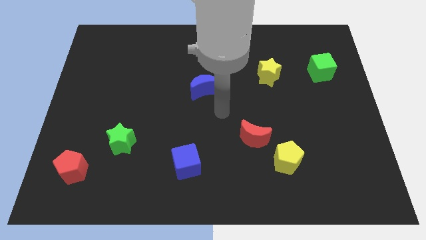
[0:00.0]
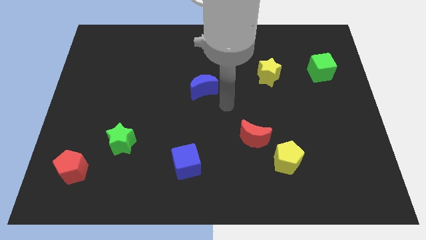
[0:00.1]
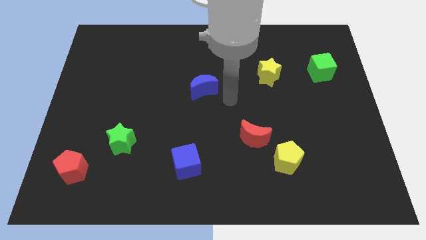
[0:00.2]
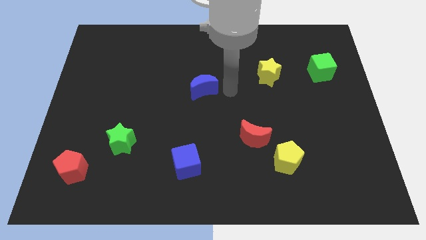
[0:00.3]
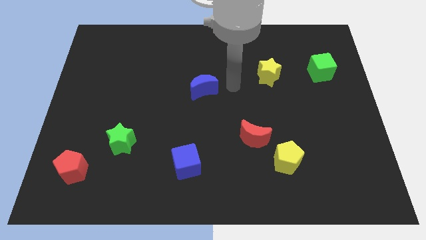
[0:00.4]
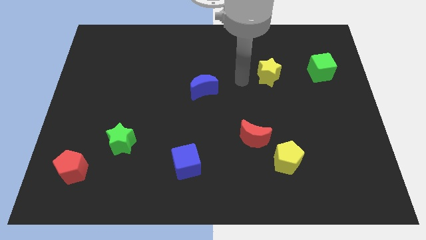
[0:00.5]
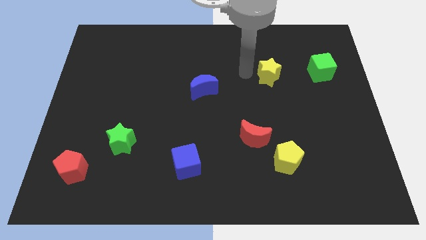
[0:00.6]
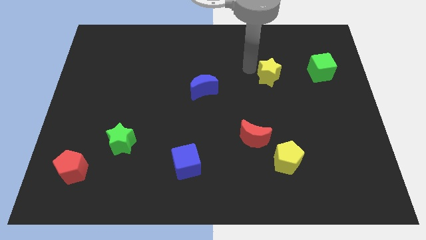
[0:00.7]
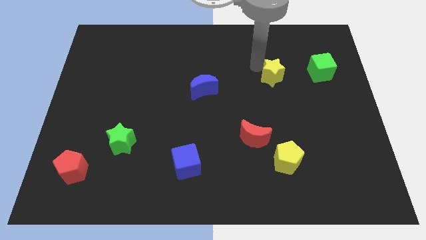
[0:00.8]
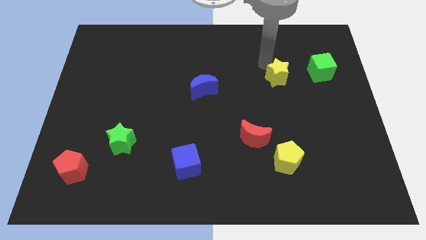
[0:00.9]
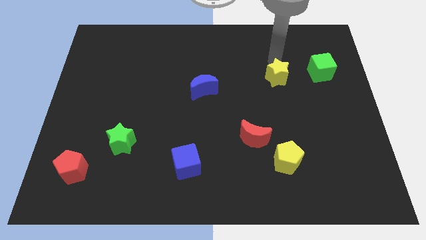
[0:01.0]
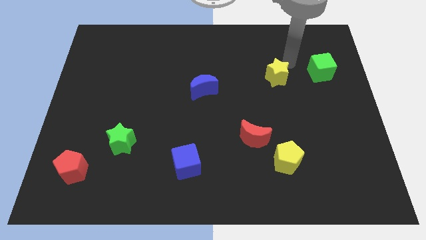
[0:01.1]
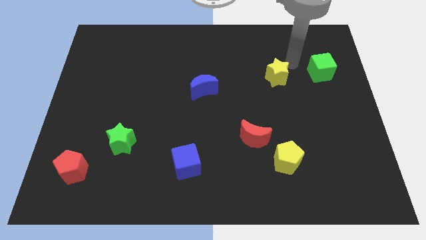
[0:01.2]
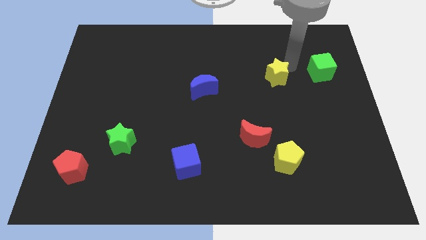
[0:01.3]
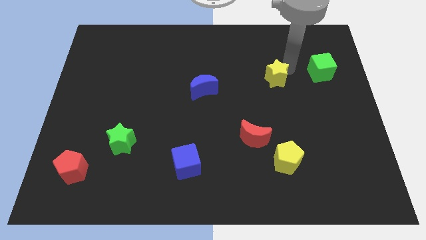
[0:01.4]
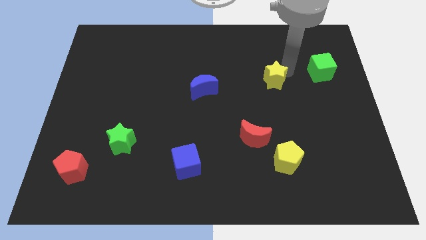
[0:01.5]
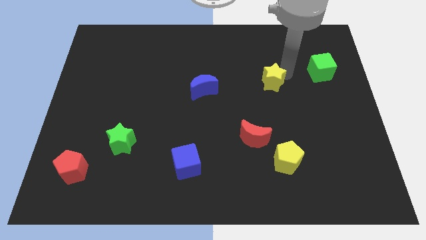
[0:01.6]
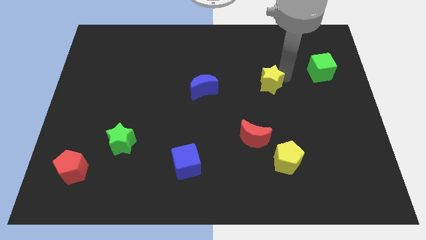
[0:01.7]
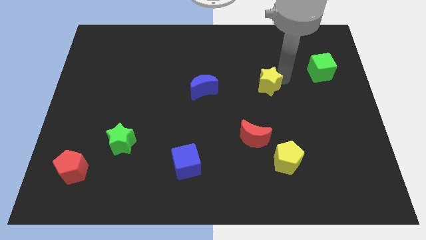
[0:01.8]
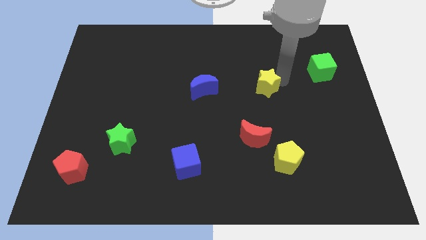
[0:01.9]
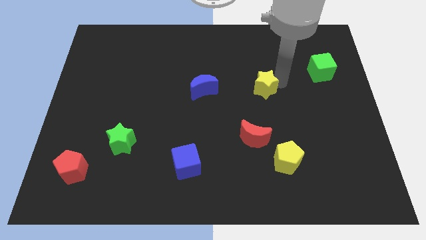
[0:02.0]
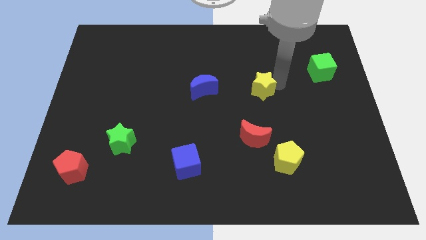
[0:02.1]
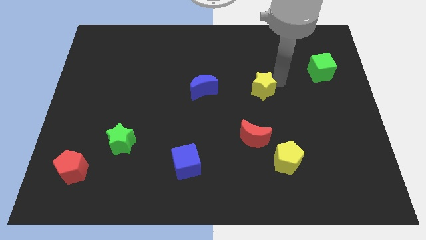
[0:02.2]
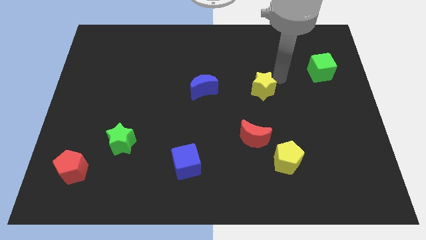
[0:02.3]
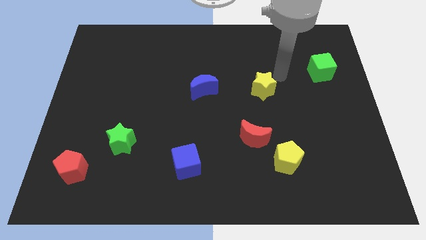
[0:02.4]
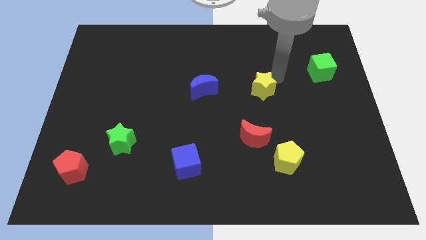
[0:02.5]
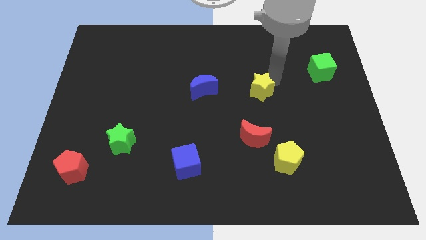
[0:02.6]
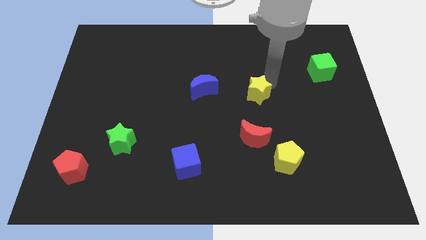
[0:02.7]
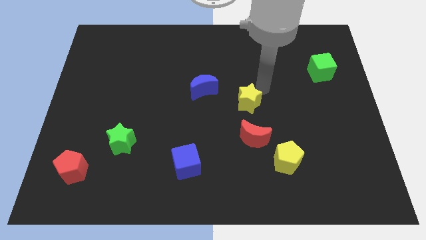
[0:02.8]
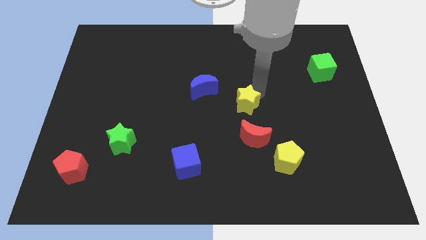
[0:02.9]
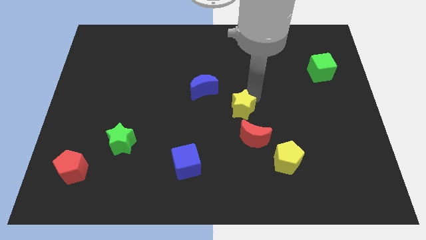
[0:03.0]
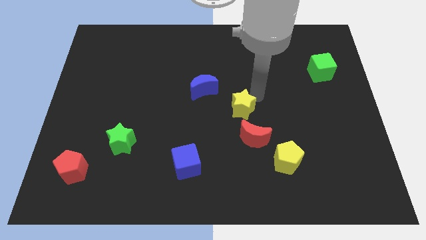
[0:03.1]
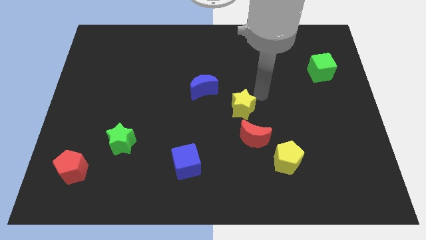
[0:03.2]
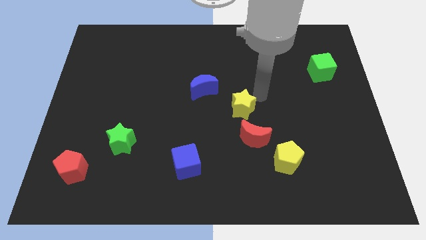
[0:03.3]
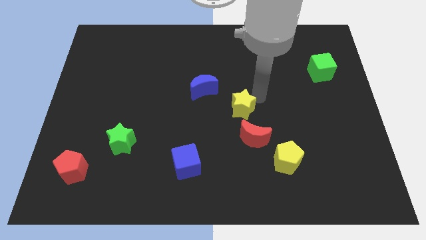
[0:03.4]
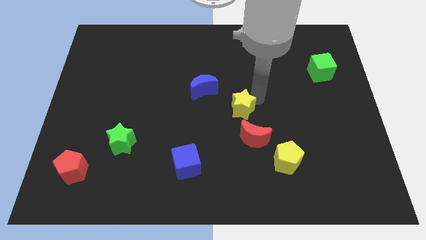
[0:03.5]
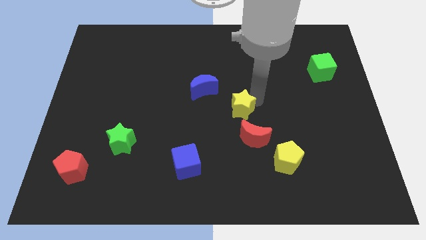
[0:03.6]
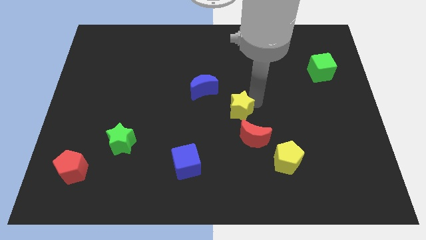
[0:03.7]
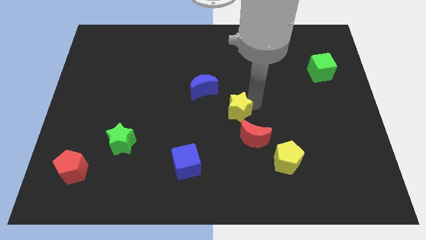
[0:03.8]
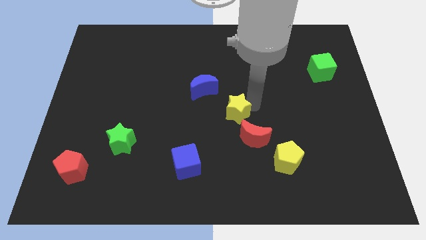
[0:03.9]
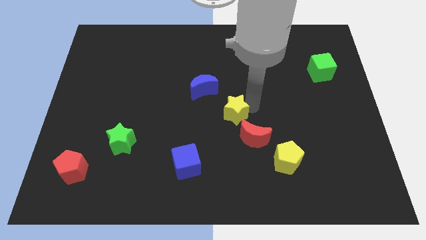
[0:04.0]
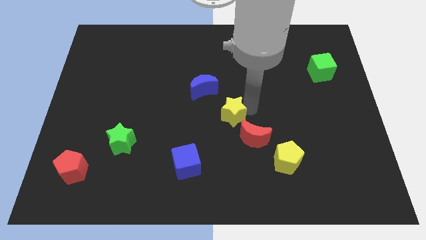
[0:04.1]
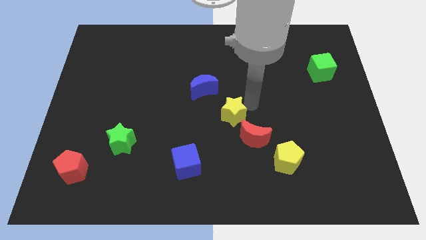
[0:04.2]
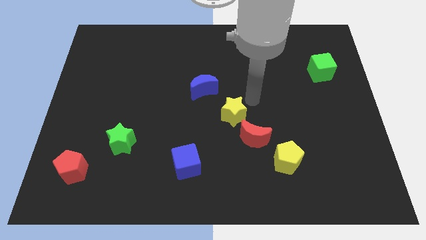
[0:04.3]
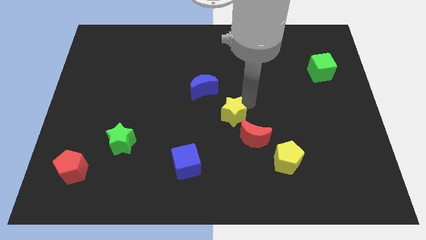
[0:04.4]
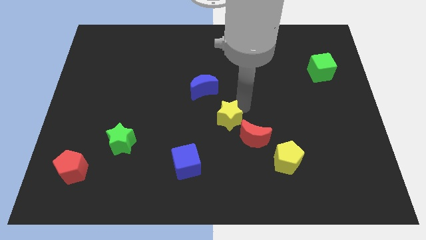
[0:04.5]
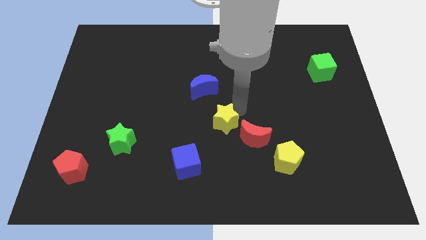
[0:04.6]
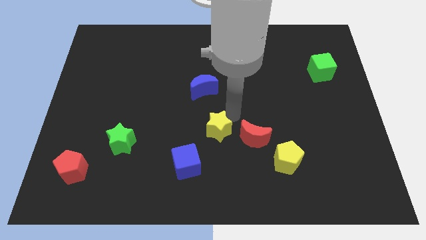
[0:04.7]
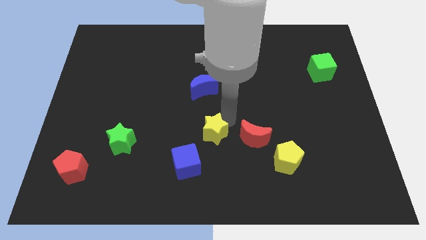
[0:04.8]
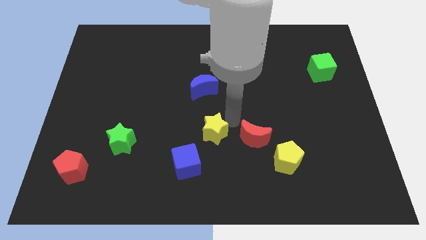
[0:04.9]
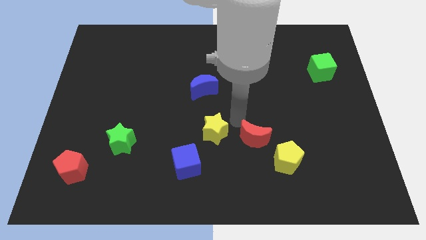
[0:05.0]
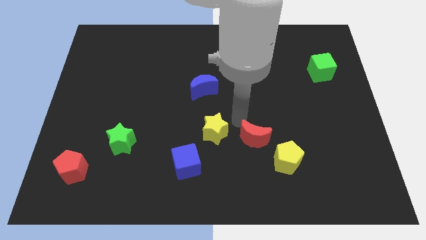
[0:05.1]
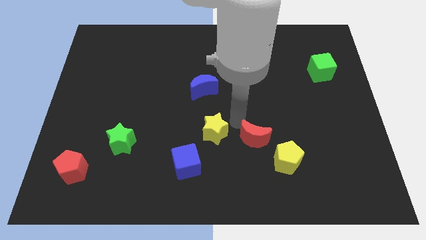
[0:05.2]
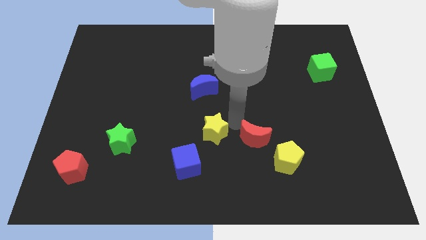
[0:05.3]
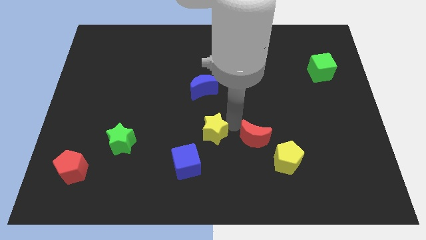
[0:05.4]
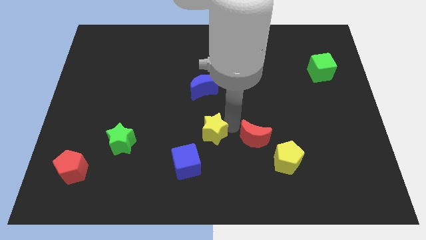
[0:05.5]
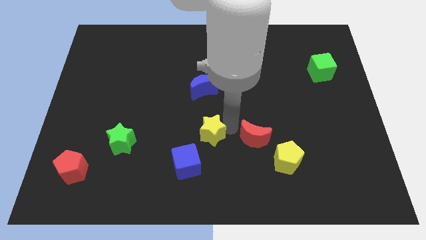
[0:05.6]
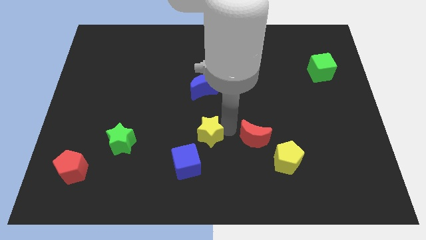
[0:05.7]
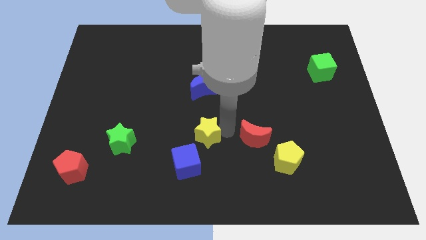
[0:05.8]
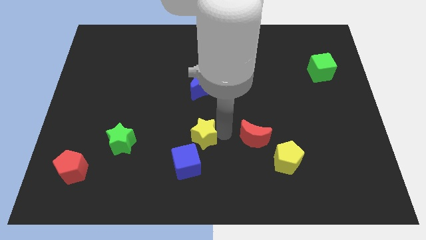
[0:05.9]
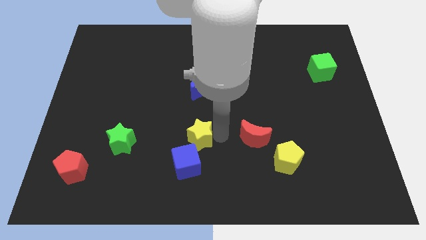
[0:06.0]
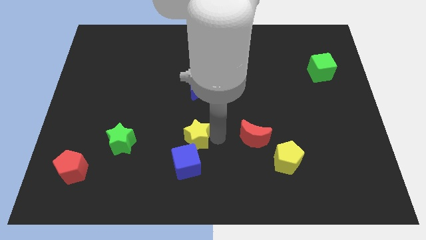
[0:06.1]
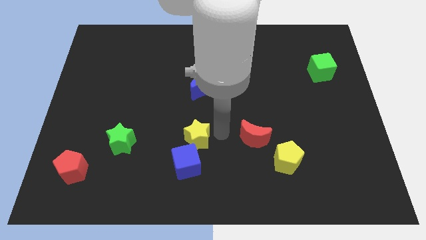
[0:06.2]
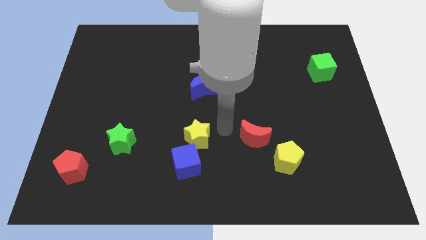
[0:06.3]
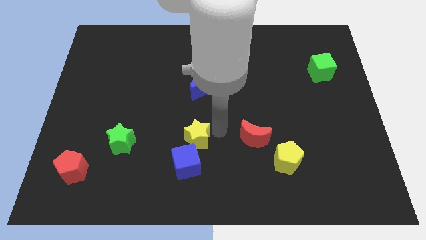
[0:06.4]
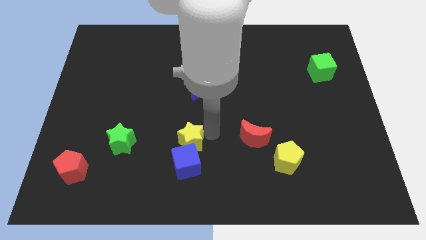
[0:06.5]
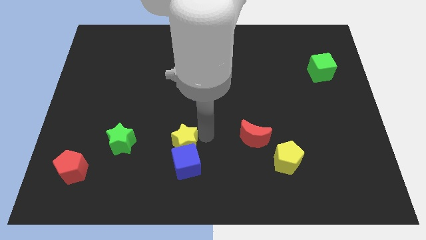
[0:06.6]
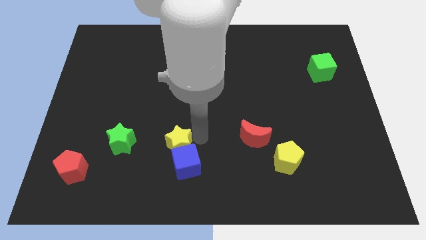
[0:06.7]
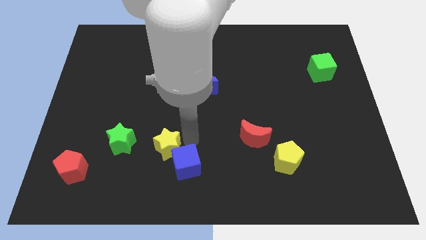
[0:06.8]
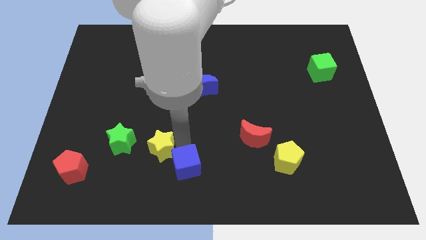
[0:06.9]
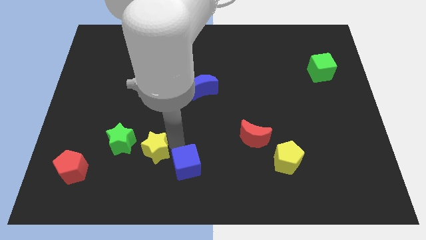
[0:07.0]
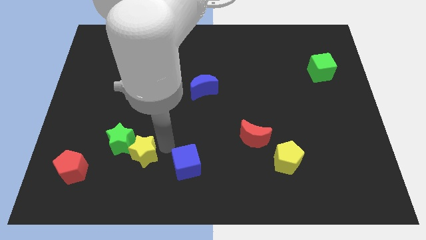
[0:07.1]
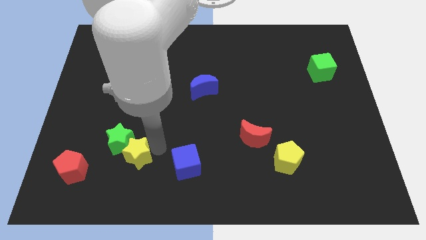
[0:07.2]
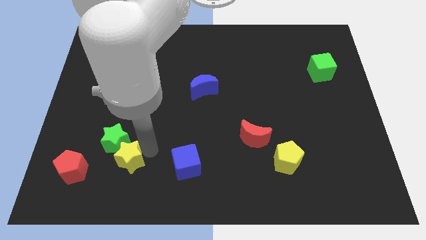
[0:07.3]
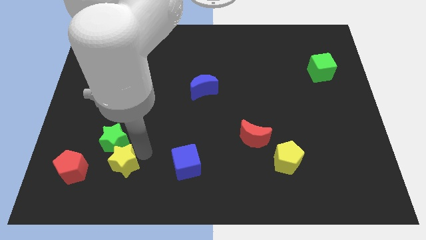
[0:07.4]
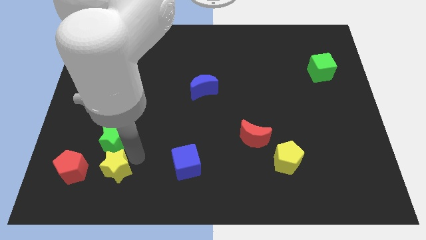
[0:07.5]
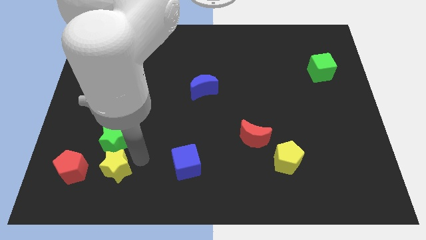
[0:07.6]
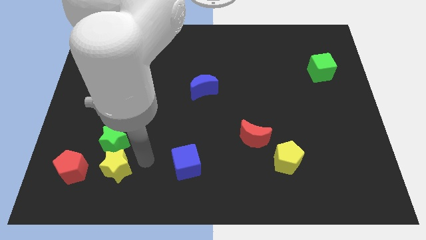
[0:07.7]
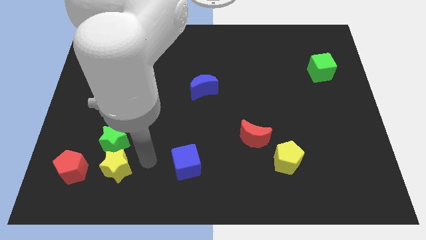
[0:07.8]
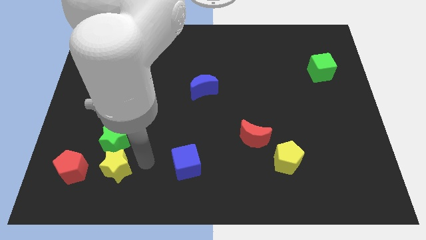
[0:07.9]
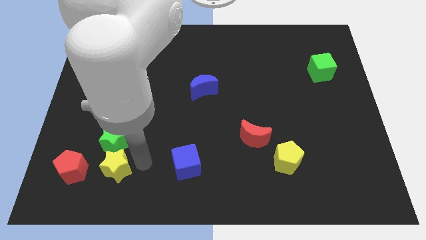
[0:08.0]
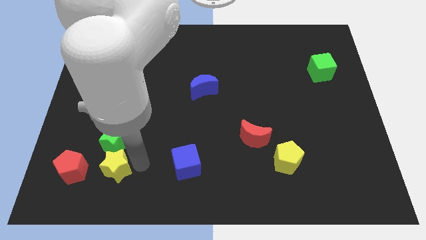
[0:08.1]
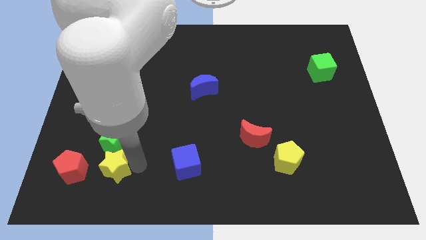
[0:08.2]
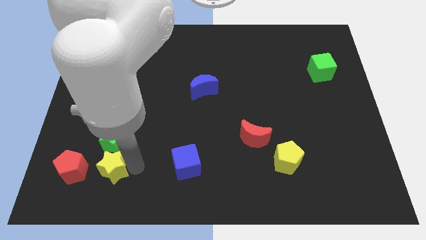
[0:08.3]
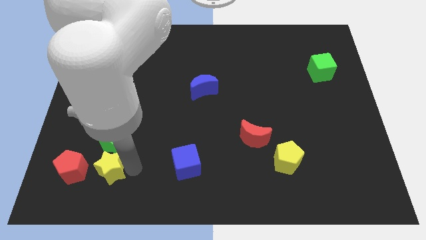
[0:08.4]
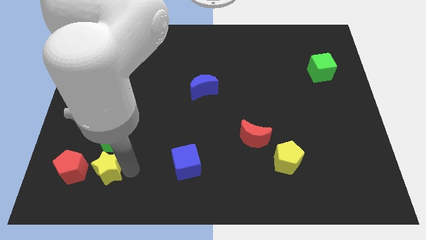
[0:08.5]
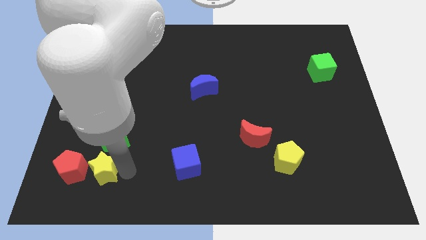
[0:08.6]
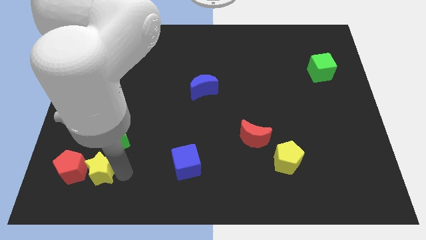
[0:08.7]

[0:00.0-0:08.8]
slide the yellow star towards the red pentagon
